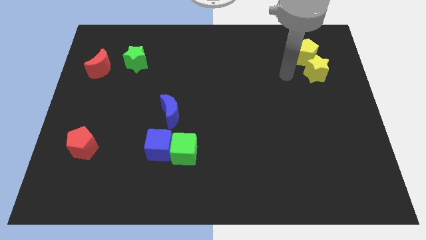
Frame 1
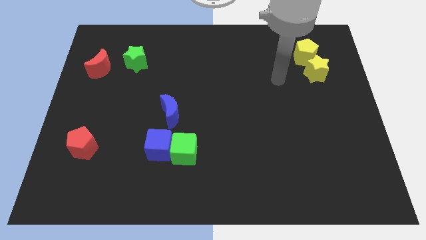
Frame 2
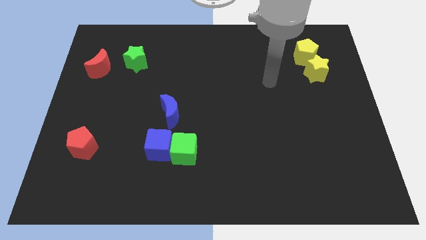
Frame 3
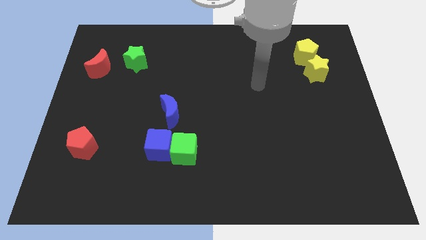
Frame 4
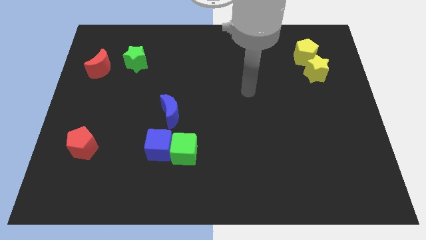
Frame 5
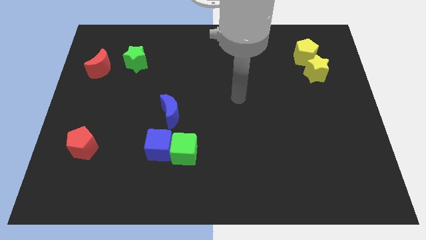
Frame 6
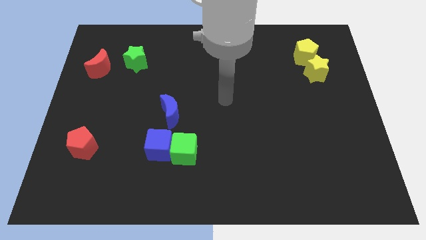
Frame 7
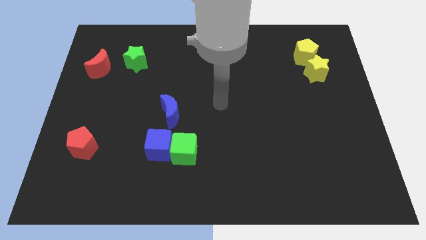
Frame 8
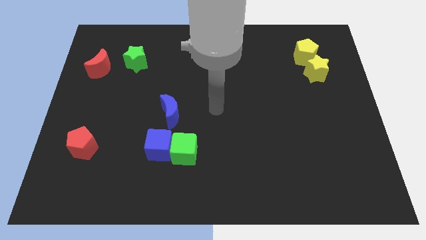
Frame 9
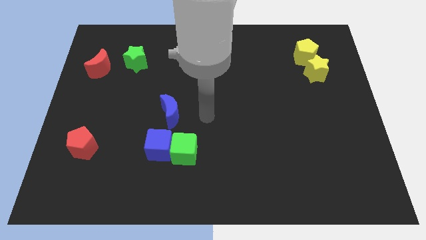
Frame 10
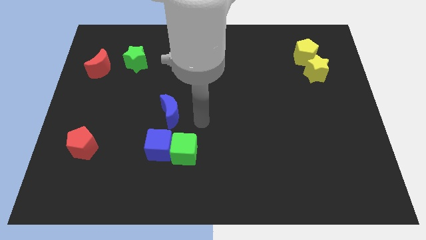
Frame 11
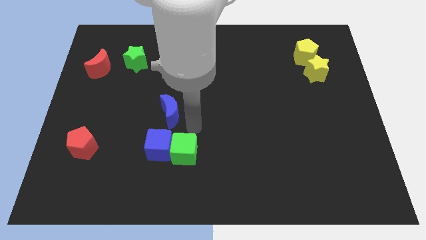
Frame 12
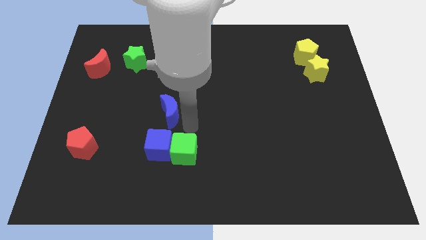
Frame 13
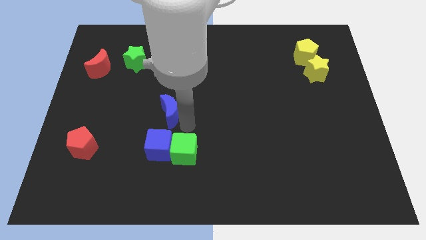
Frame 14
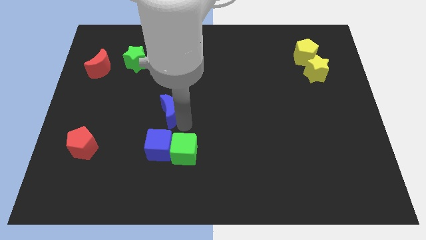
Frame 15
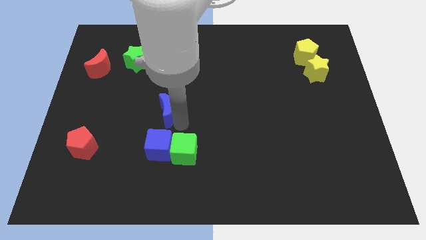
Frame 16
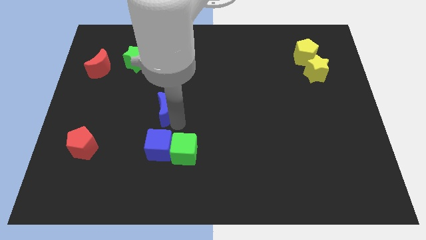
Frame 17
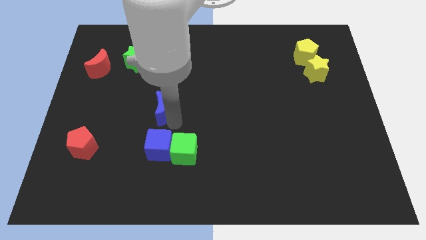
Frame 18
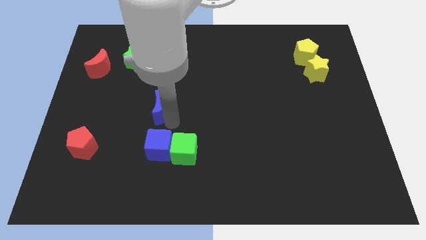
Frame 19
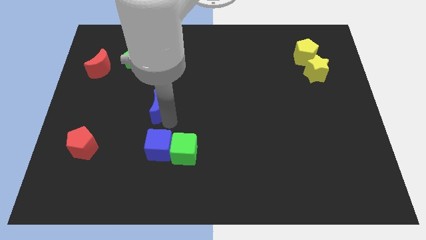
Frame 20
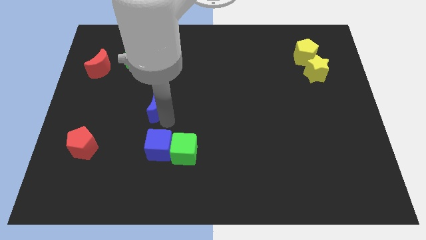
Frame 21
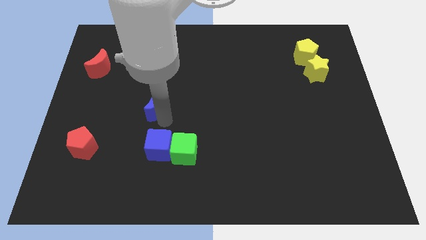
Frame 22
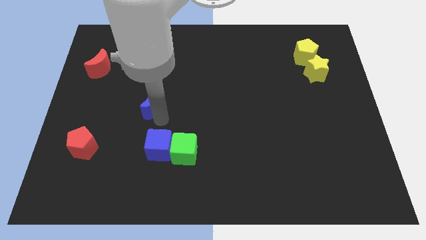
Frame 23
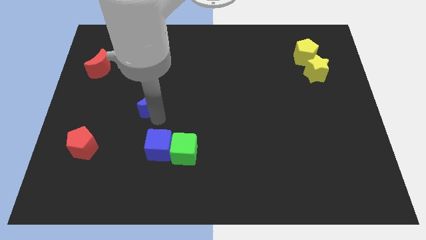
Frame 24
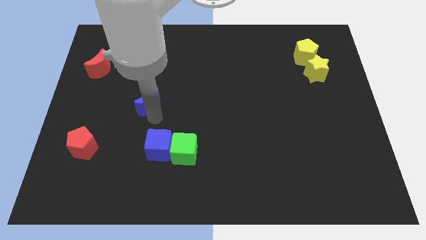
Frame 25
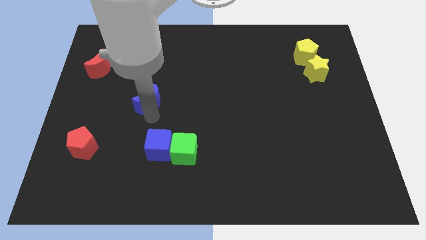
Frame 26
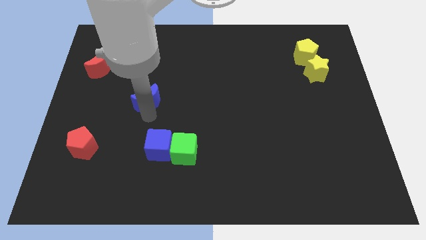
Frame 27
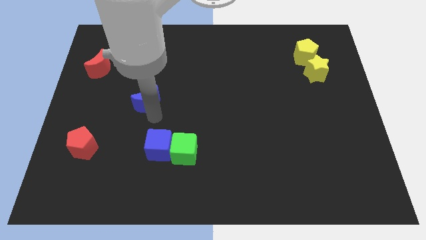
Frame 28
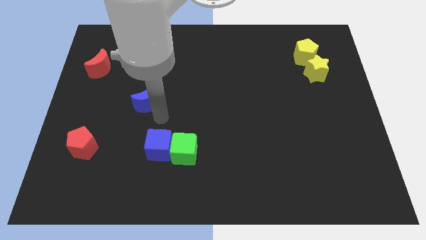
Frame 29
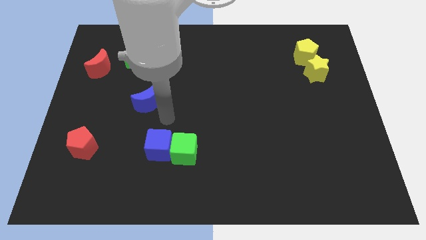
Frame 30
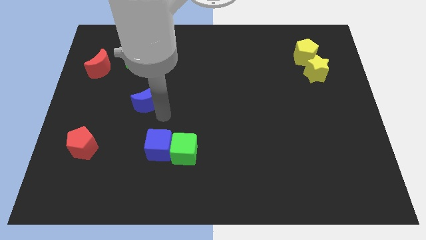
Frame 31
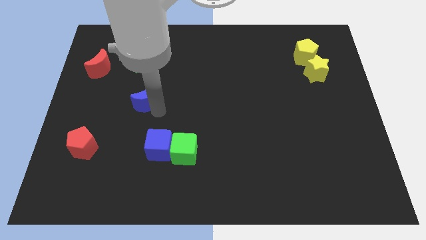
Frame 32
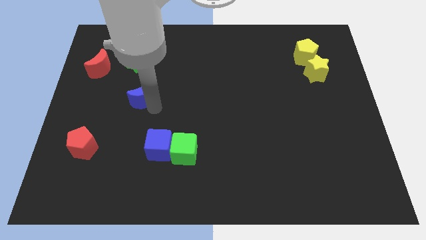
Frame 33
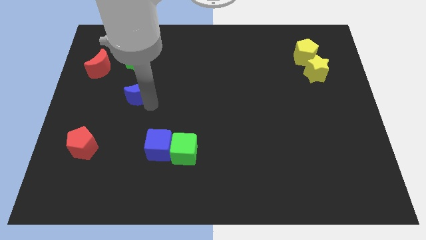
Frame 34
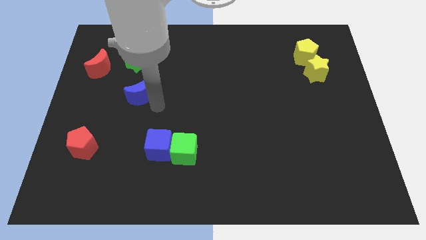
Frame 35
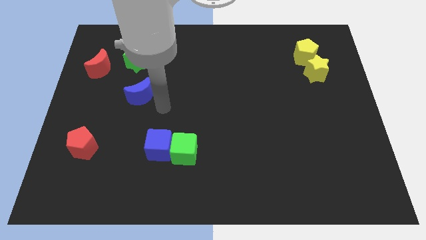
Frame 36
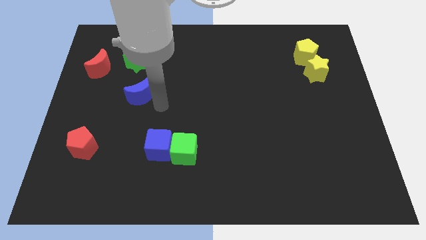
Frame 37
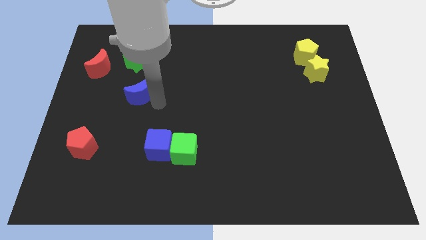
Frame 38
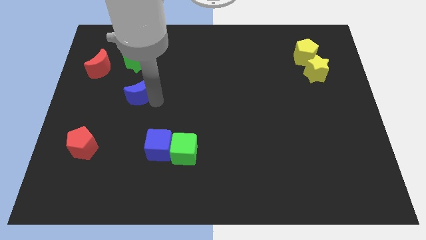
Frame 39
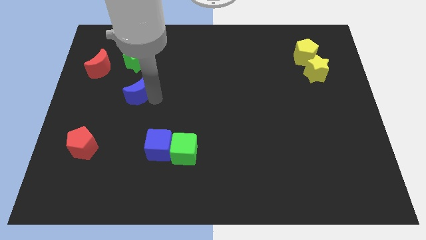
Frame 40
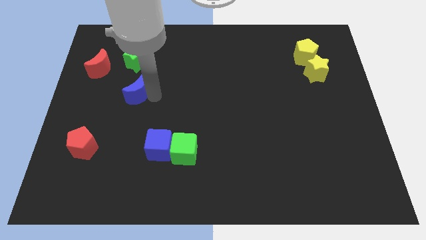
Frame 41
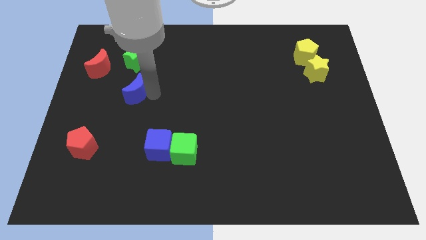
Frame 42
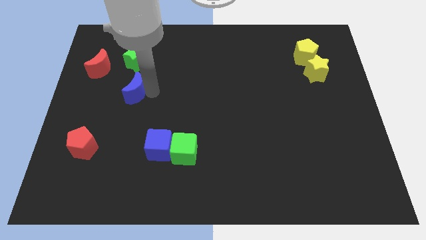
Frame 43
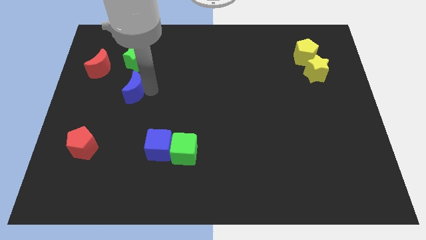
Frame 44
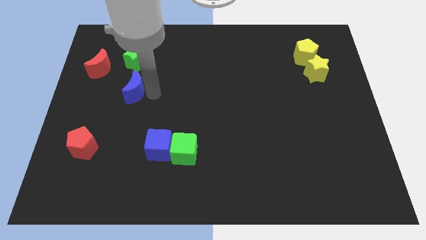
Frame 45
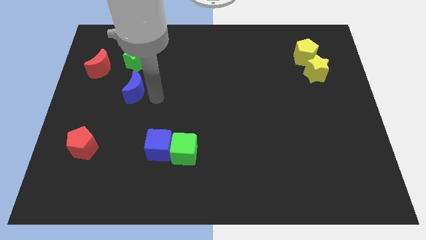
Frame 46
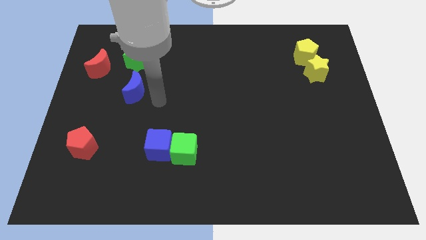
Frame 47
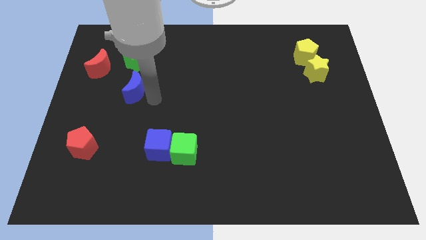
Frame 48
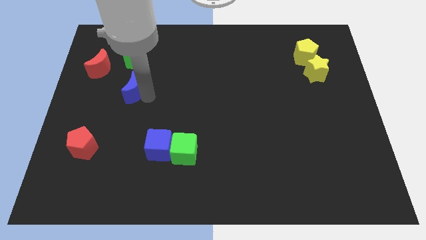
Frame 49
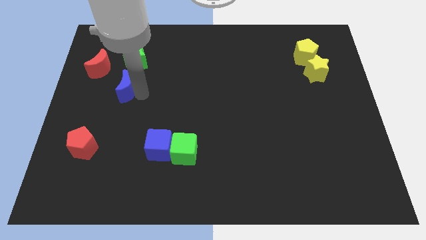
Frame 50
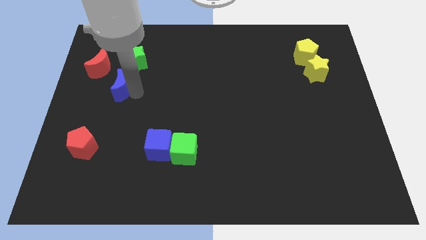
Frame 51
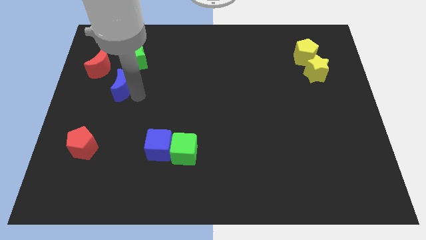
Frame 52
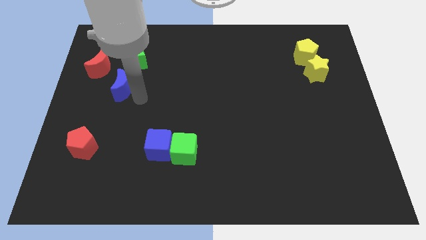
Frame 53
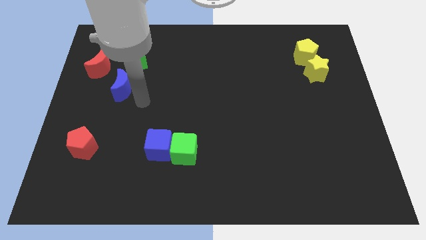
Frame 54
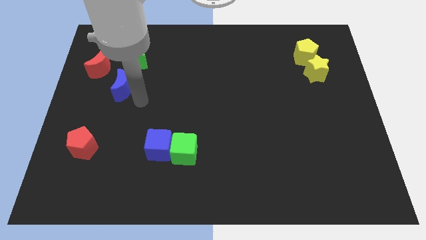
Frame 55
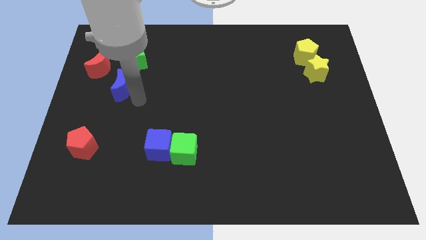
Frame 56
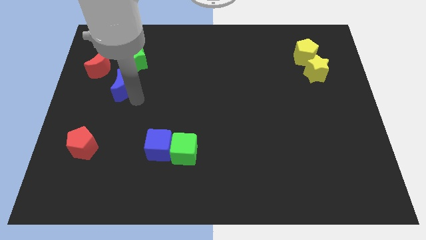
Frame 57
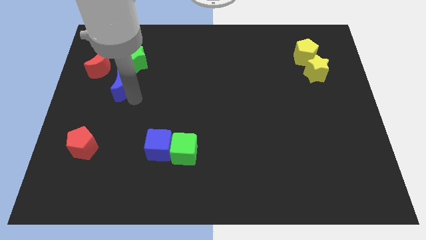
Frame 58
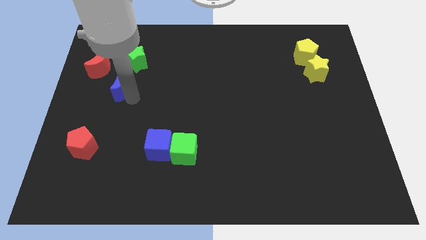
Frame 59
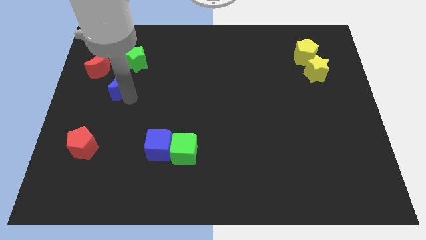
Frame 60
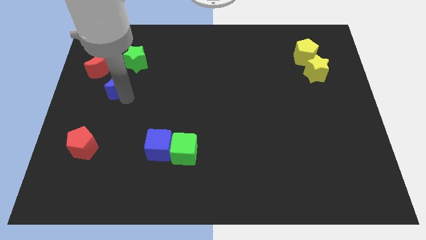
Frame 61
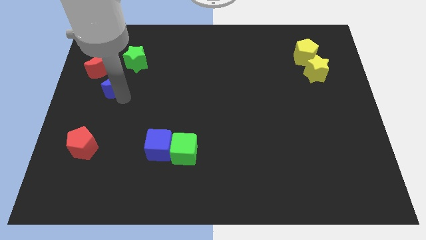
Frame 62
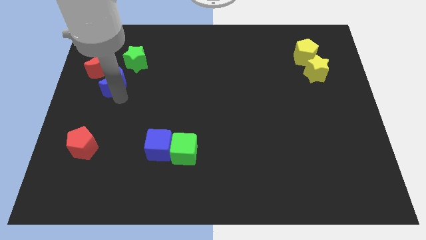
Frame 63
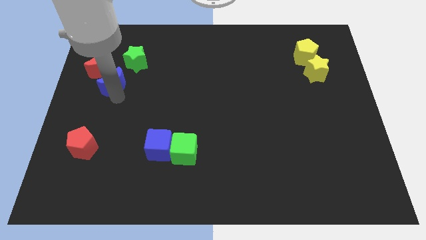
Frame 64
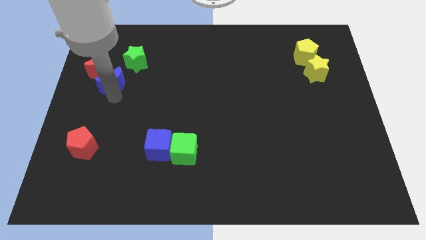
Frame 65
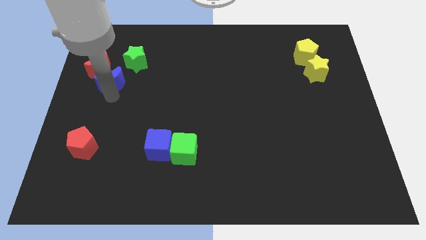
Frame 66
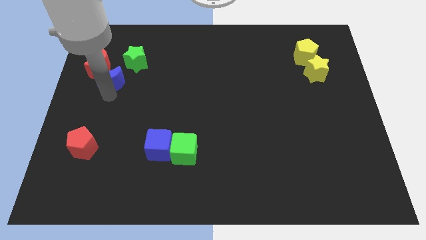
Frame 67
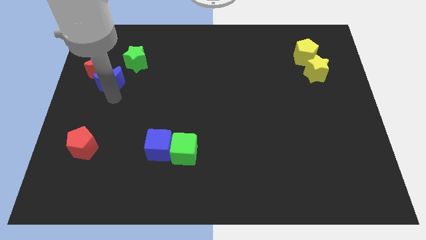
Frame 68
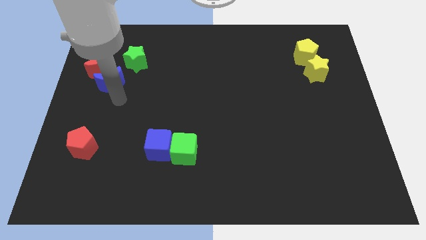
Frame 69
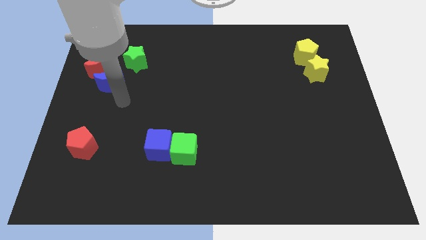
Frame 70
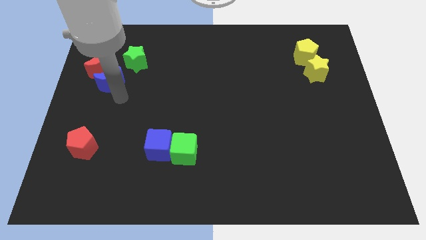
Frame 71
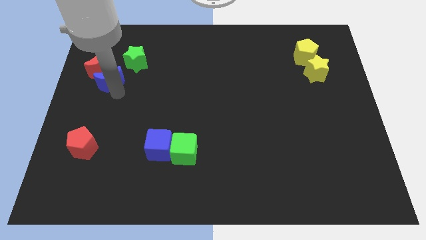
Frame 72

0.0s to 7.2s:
push the blue moon to the red moon

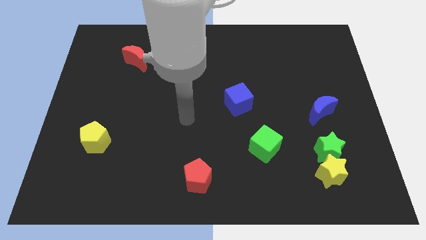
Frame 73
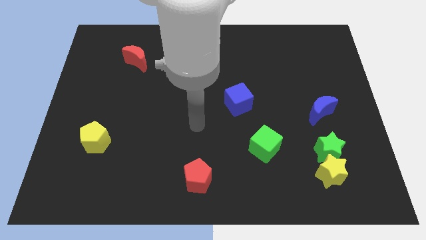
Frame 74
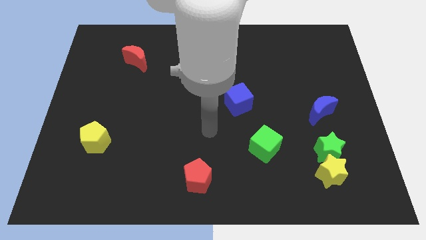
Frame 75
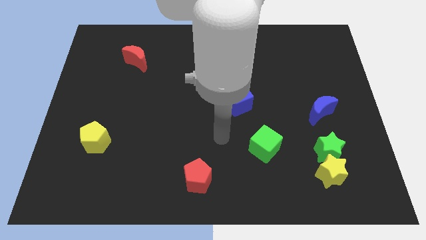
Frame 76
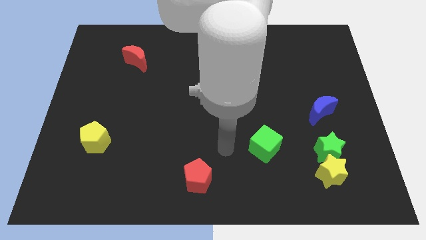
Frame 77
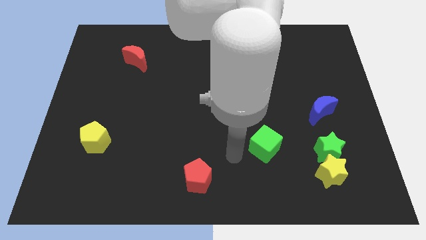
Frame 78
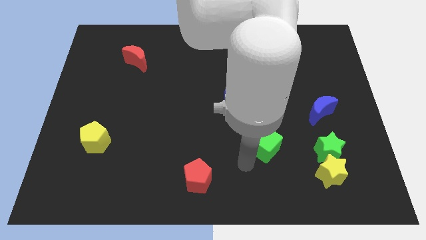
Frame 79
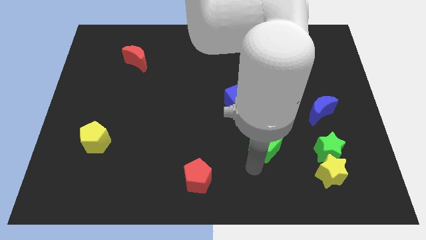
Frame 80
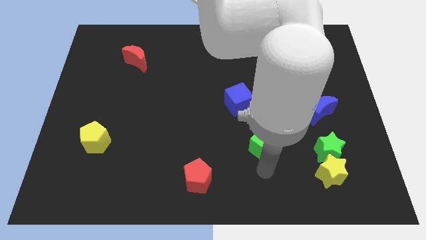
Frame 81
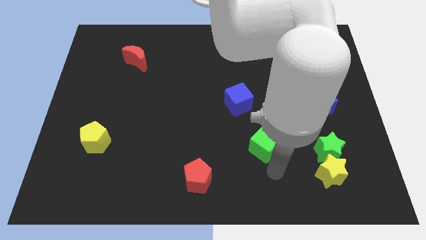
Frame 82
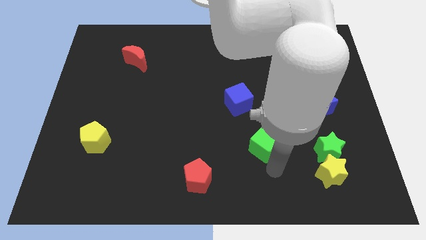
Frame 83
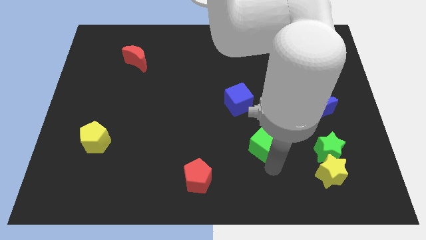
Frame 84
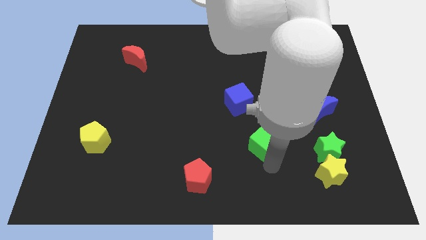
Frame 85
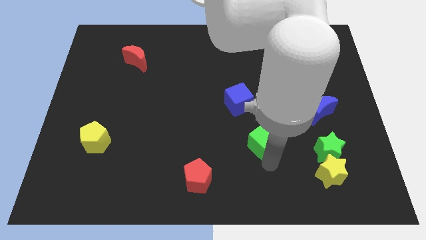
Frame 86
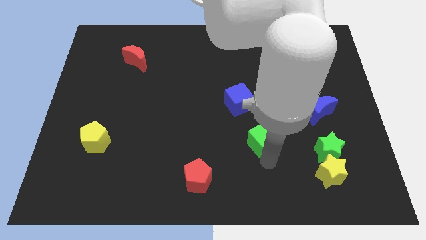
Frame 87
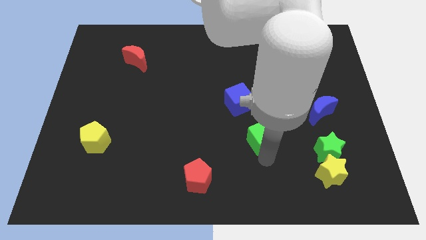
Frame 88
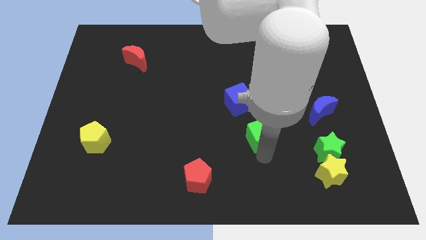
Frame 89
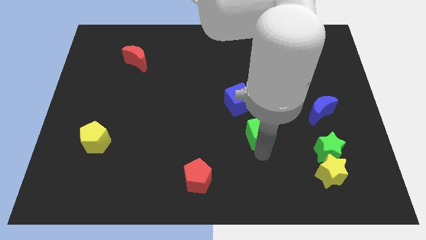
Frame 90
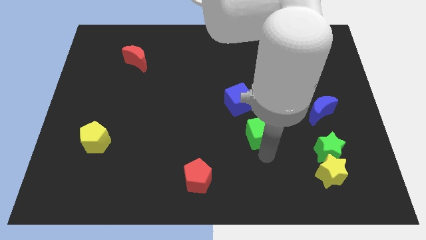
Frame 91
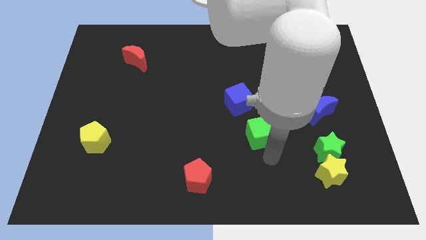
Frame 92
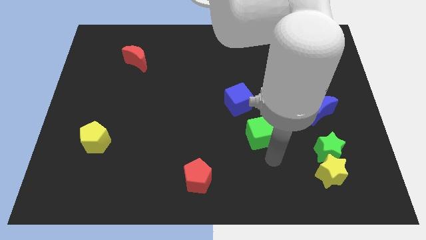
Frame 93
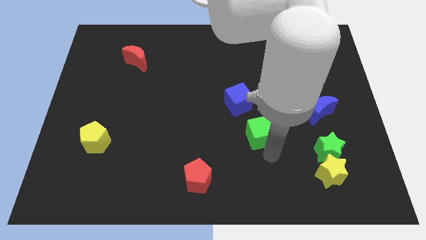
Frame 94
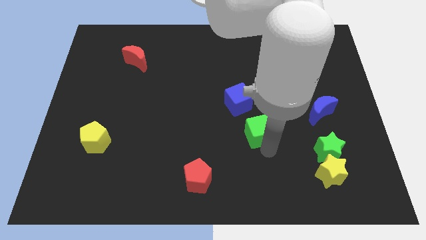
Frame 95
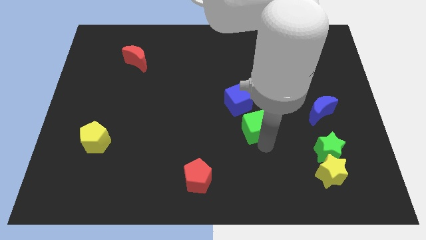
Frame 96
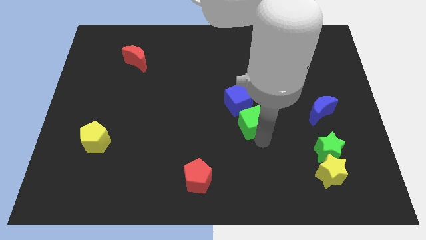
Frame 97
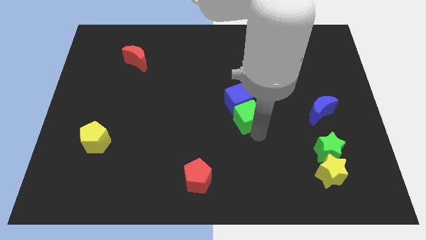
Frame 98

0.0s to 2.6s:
put the green cube to the blue cube
